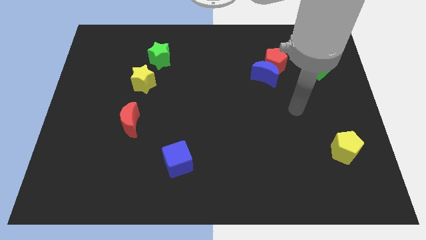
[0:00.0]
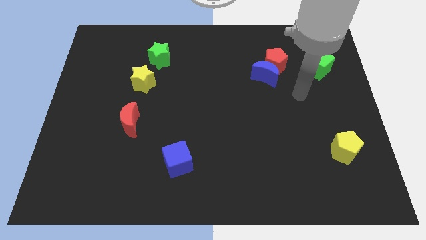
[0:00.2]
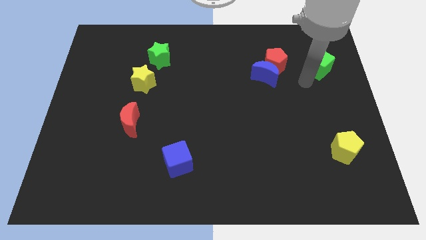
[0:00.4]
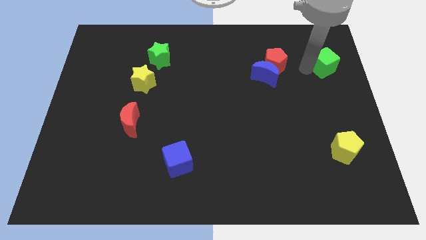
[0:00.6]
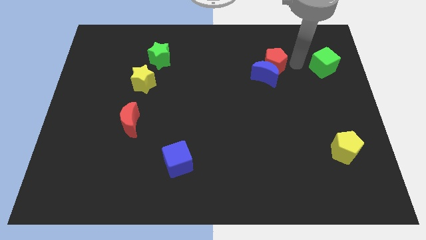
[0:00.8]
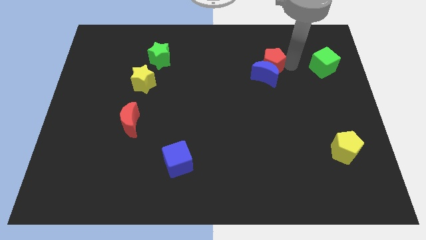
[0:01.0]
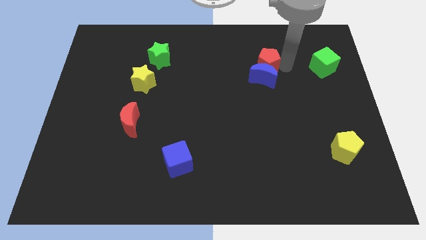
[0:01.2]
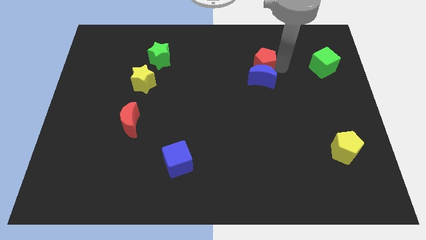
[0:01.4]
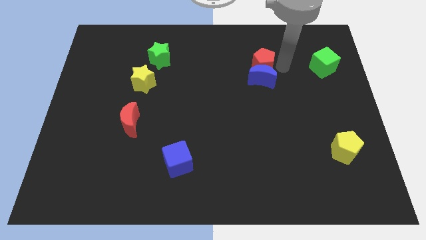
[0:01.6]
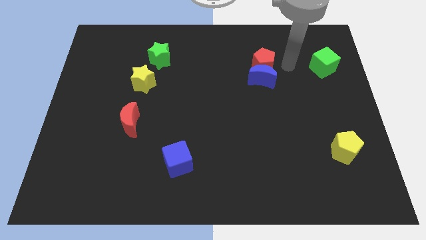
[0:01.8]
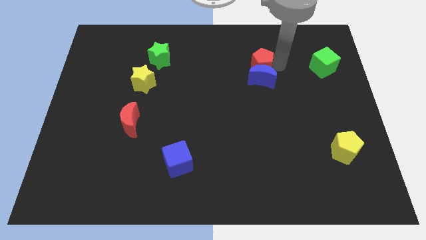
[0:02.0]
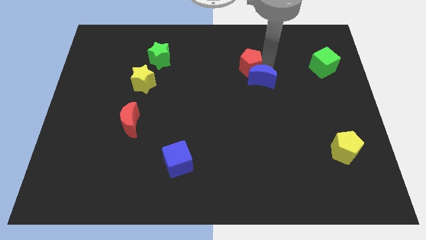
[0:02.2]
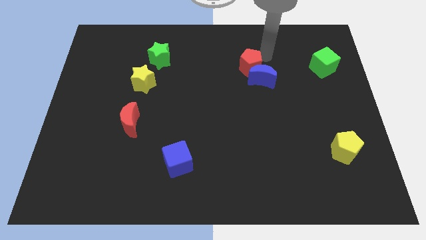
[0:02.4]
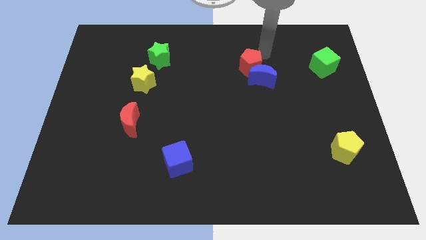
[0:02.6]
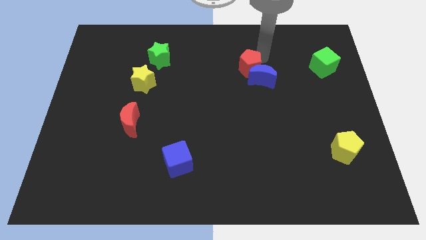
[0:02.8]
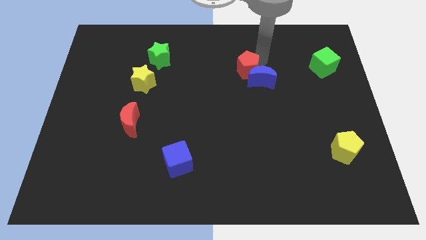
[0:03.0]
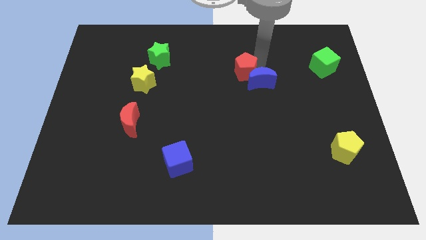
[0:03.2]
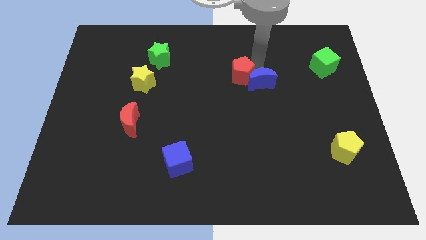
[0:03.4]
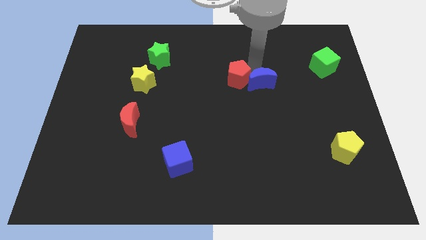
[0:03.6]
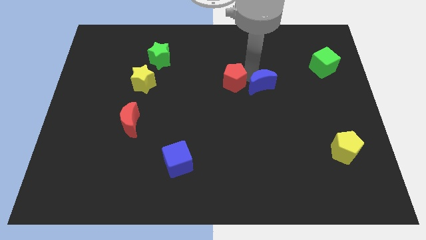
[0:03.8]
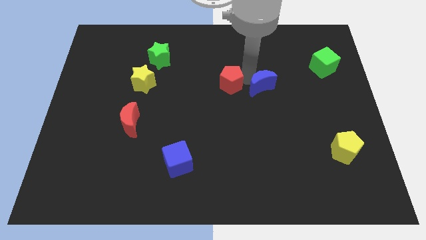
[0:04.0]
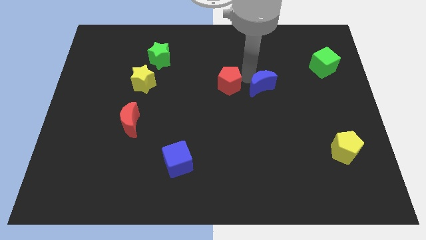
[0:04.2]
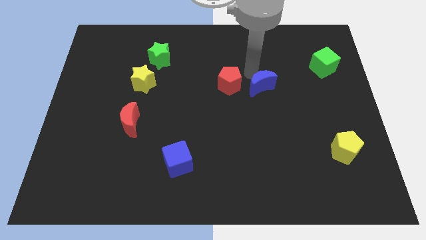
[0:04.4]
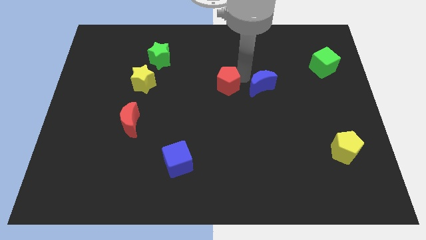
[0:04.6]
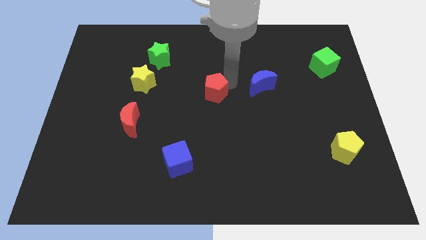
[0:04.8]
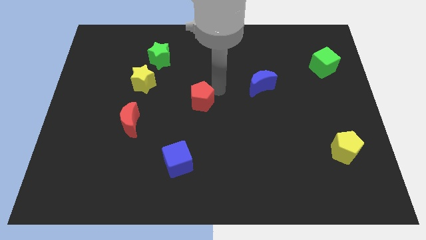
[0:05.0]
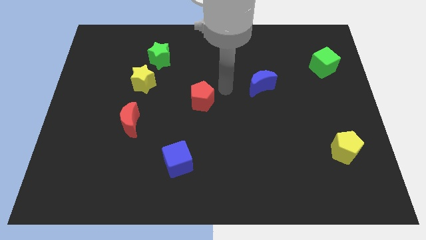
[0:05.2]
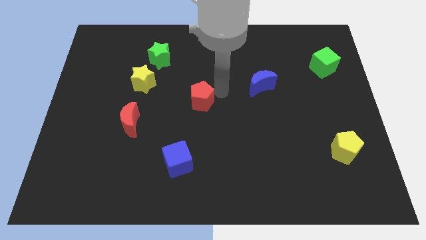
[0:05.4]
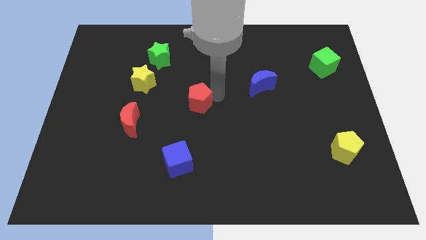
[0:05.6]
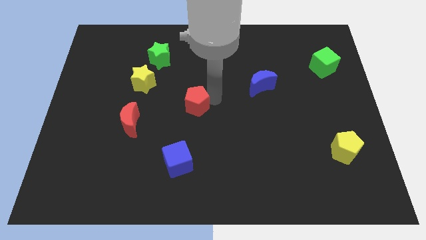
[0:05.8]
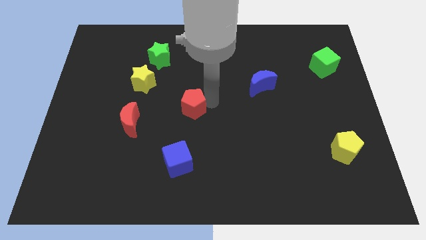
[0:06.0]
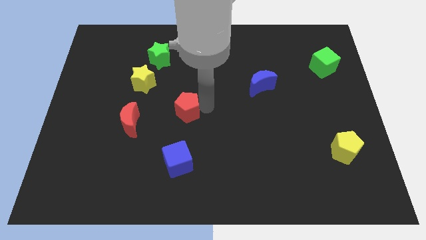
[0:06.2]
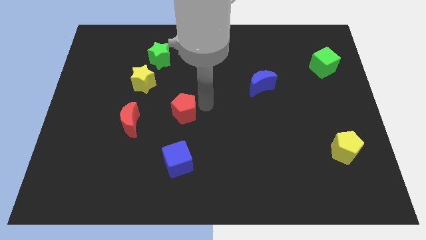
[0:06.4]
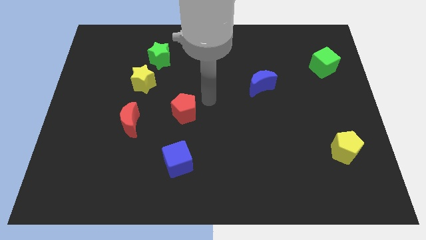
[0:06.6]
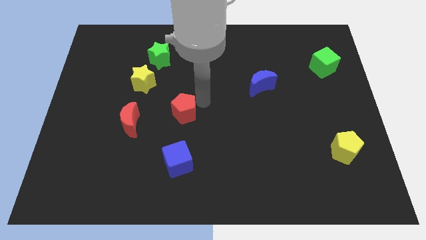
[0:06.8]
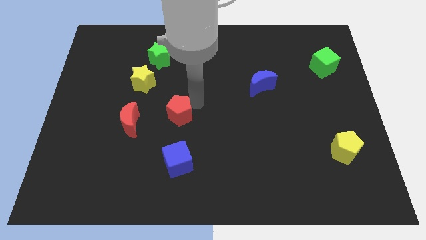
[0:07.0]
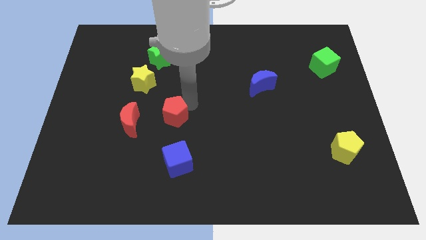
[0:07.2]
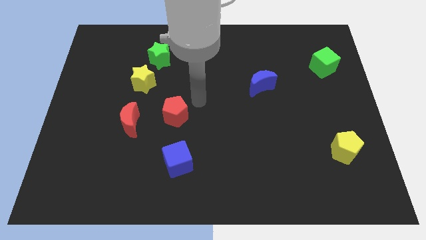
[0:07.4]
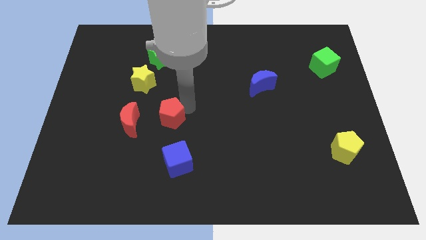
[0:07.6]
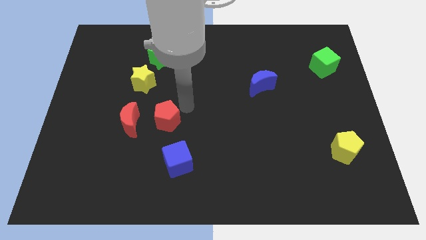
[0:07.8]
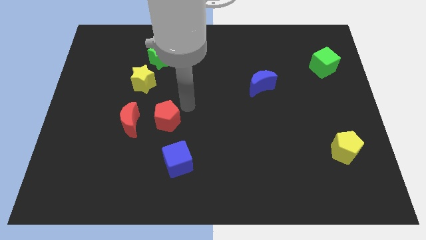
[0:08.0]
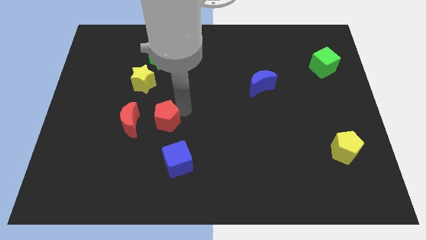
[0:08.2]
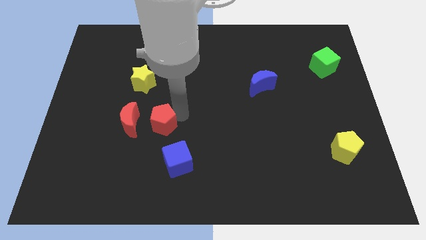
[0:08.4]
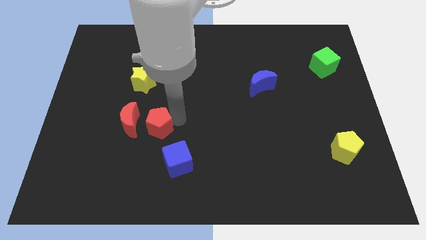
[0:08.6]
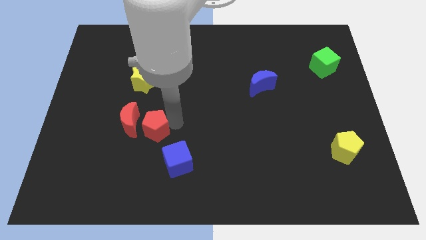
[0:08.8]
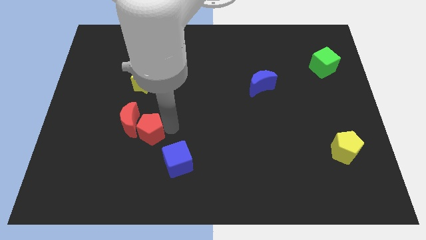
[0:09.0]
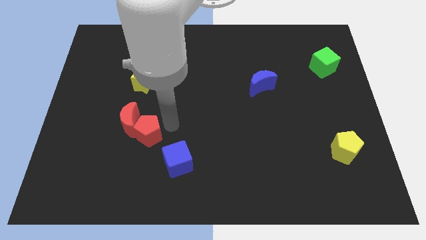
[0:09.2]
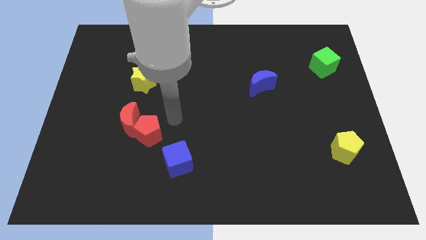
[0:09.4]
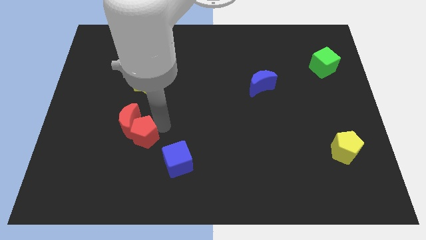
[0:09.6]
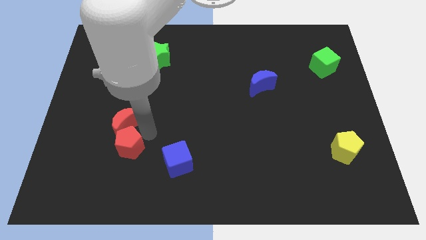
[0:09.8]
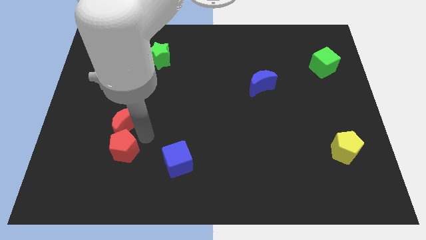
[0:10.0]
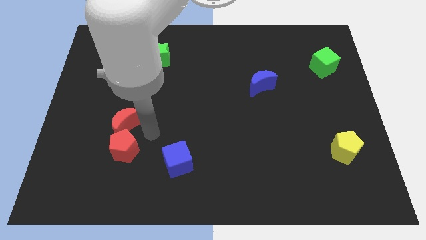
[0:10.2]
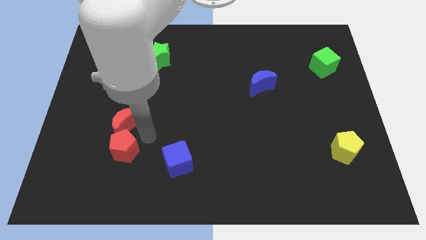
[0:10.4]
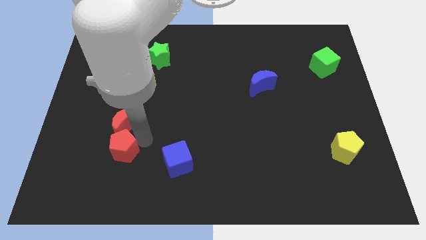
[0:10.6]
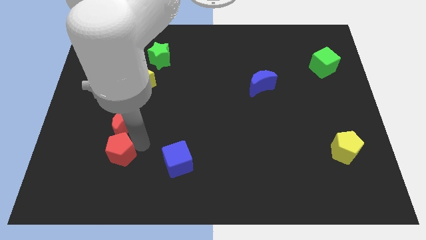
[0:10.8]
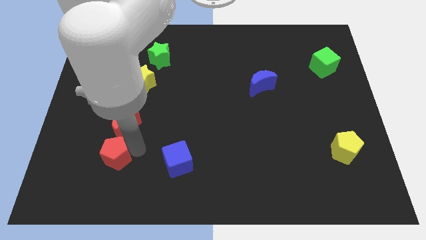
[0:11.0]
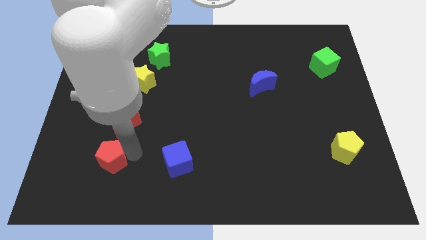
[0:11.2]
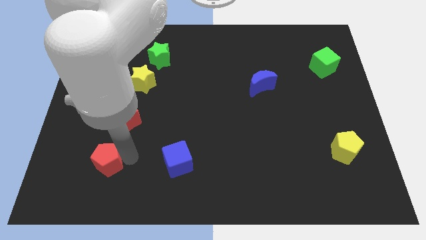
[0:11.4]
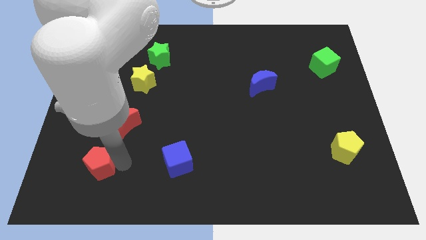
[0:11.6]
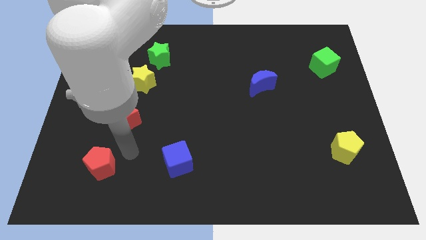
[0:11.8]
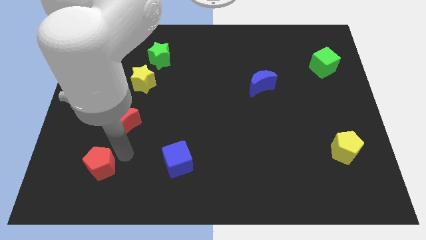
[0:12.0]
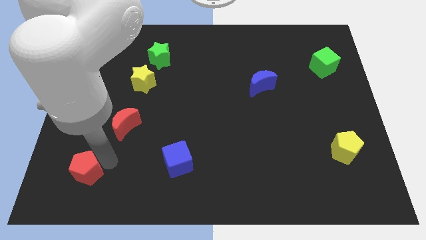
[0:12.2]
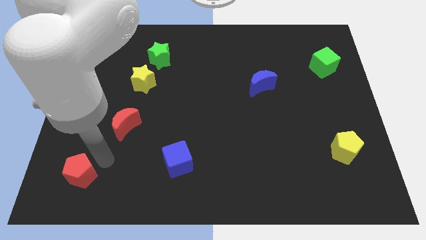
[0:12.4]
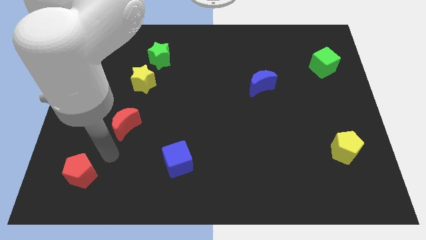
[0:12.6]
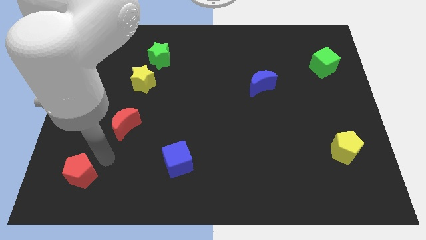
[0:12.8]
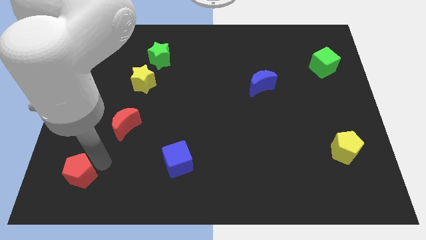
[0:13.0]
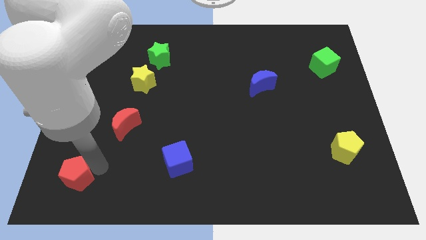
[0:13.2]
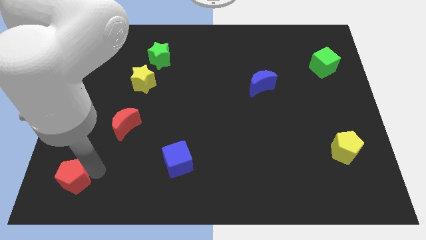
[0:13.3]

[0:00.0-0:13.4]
put the red pentagon to the lower left corner
